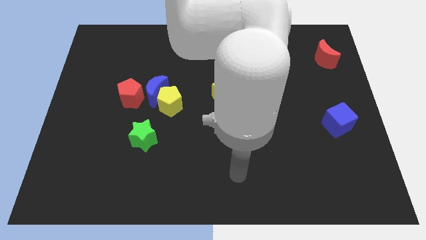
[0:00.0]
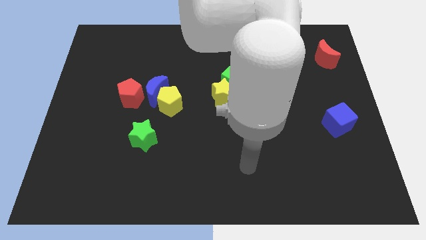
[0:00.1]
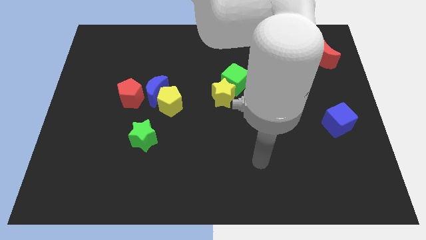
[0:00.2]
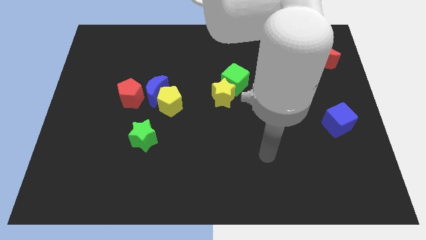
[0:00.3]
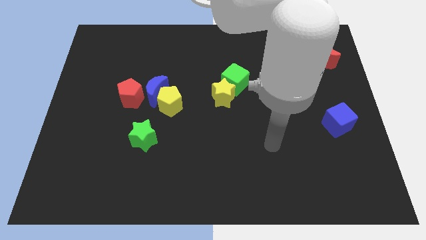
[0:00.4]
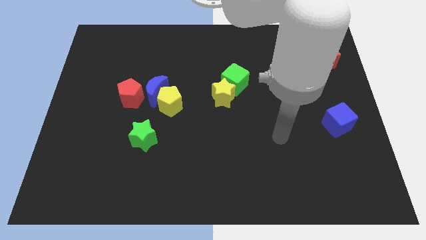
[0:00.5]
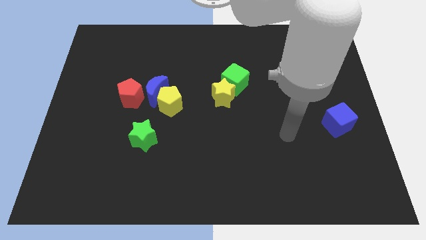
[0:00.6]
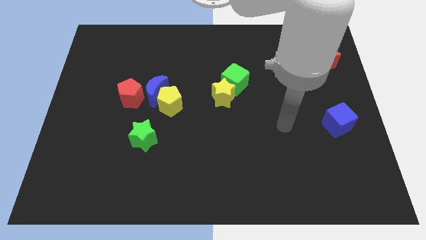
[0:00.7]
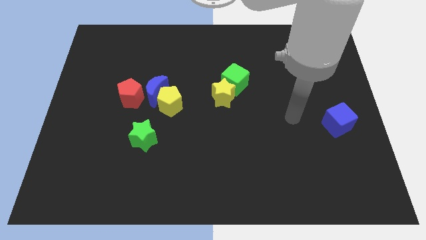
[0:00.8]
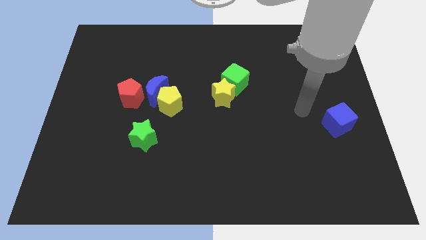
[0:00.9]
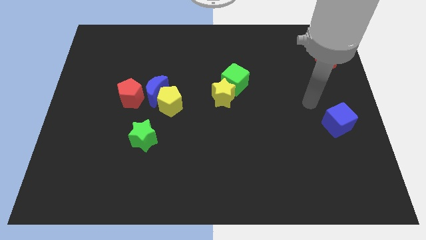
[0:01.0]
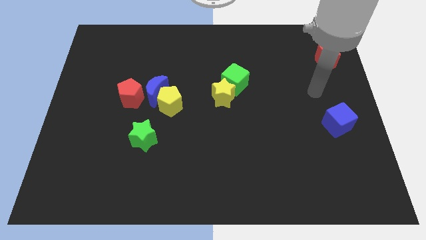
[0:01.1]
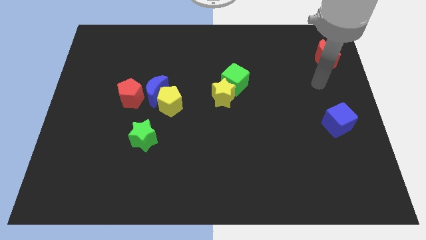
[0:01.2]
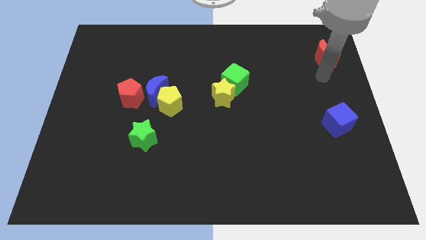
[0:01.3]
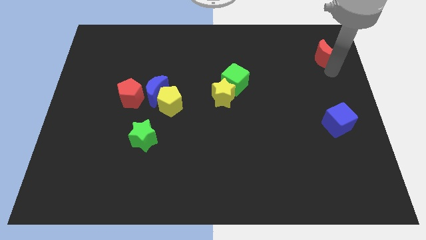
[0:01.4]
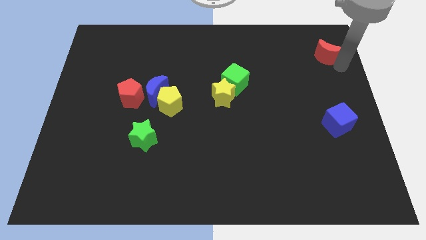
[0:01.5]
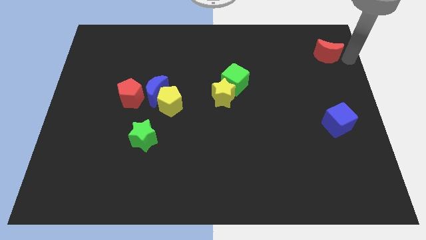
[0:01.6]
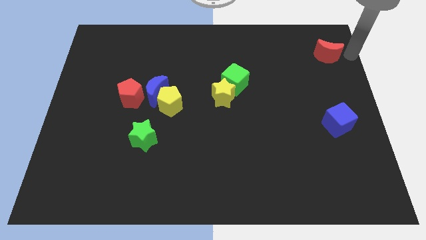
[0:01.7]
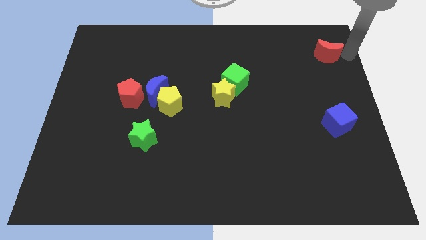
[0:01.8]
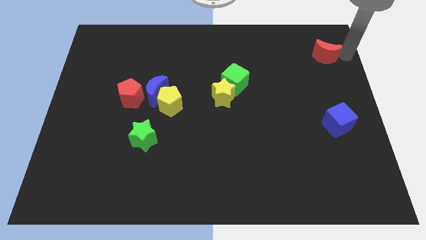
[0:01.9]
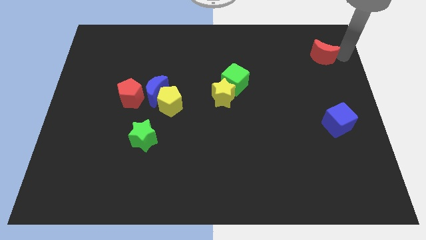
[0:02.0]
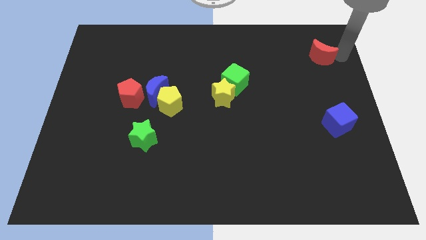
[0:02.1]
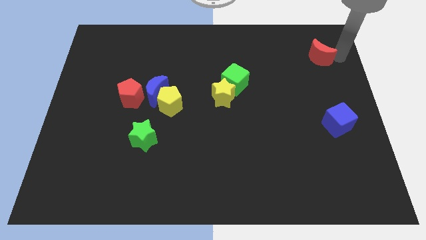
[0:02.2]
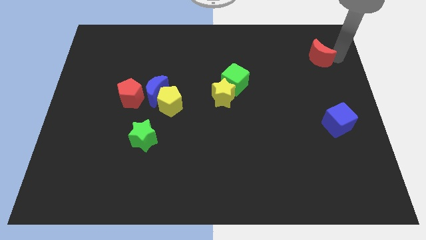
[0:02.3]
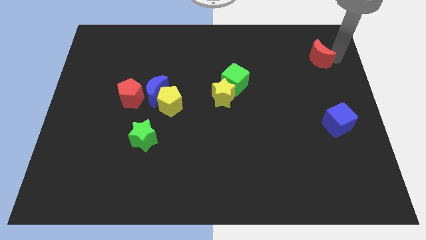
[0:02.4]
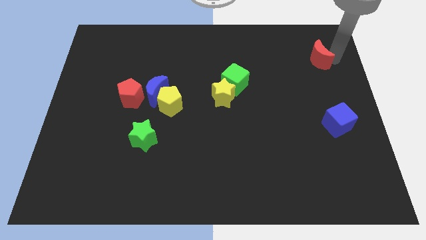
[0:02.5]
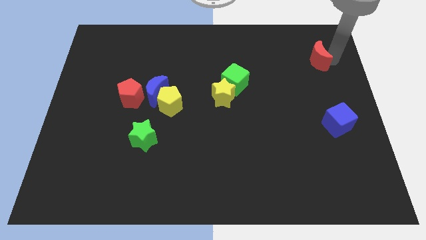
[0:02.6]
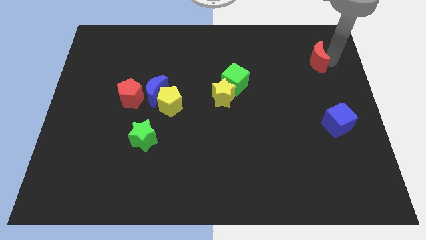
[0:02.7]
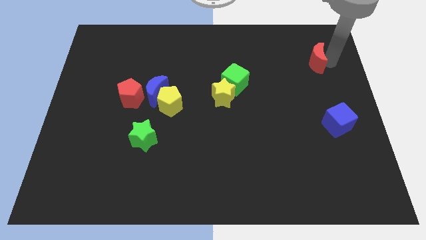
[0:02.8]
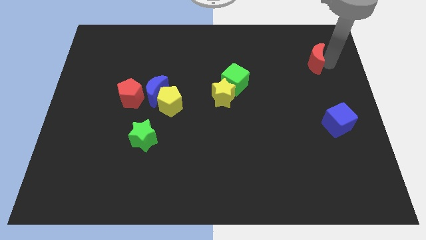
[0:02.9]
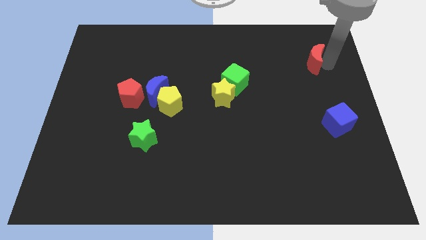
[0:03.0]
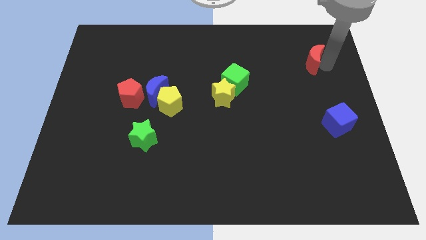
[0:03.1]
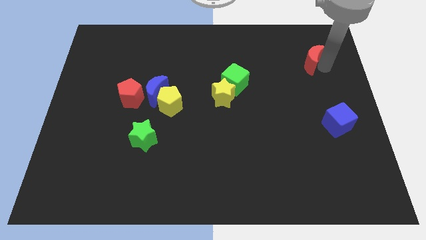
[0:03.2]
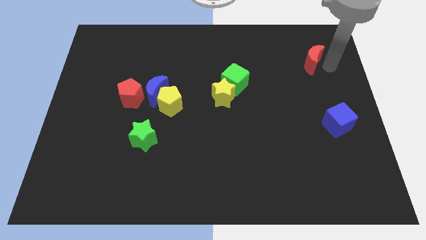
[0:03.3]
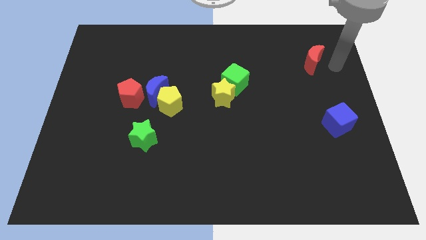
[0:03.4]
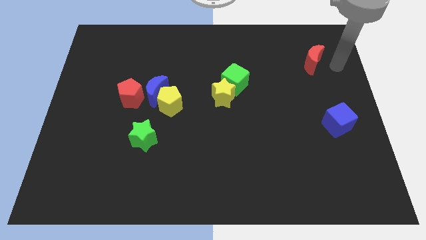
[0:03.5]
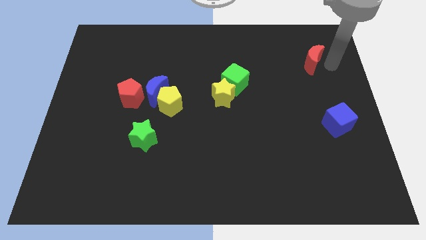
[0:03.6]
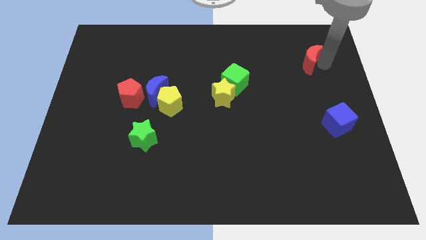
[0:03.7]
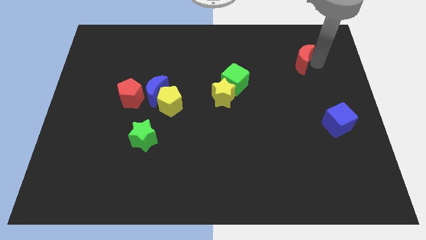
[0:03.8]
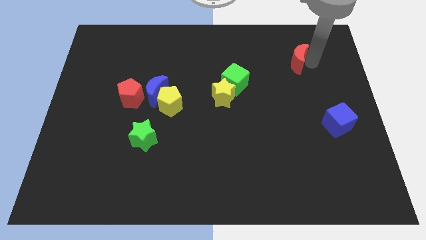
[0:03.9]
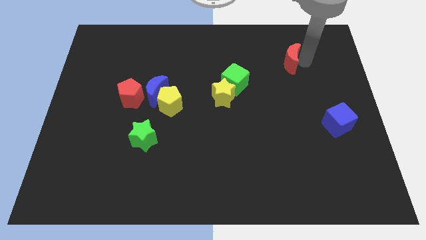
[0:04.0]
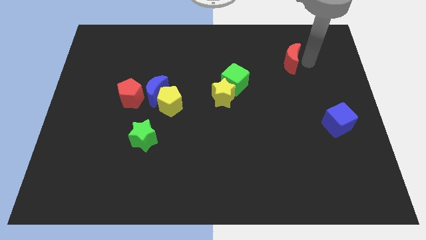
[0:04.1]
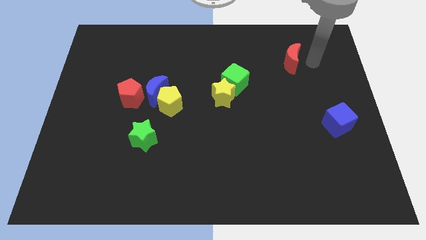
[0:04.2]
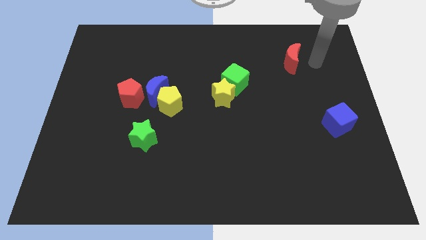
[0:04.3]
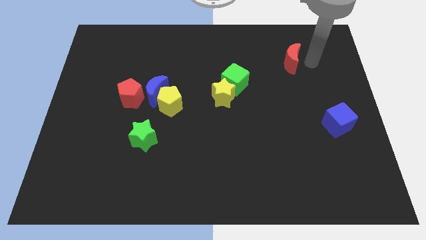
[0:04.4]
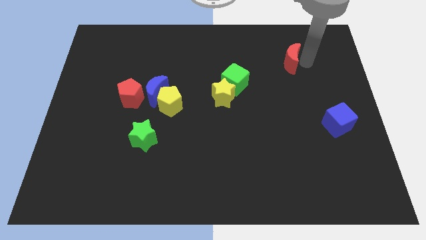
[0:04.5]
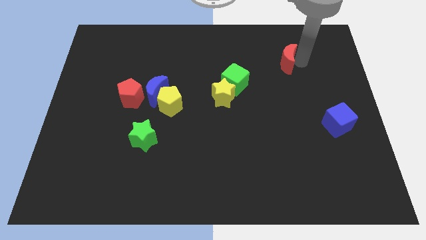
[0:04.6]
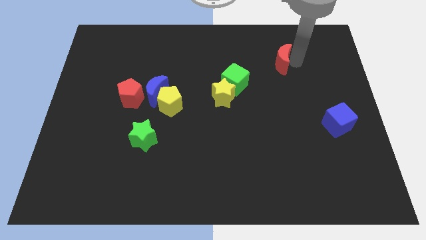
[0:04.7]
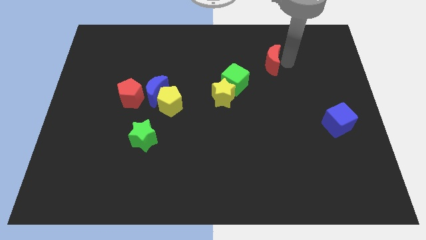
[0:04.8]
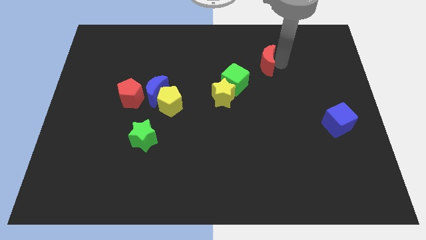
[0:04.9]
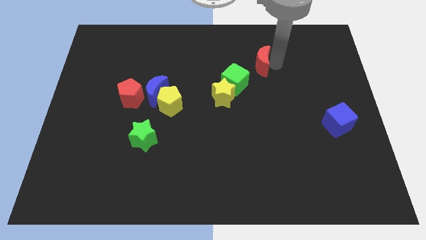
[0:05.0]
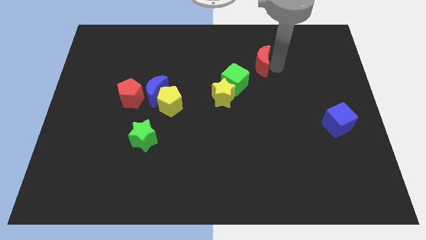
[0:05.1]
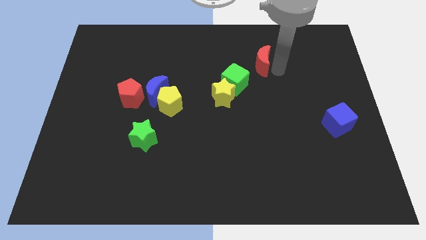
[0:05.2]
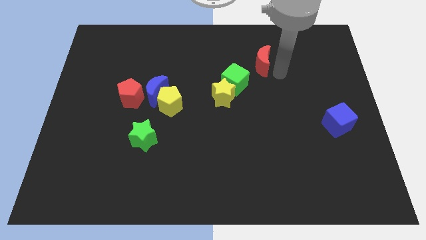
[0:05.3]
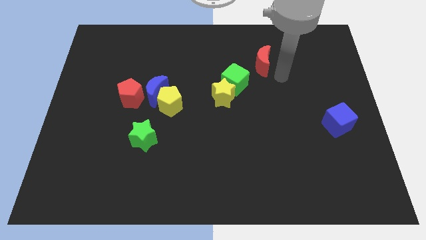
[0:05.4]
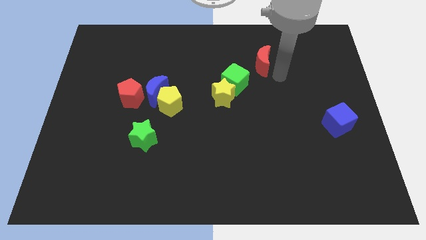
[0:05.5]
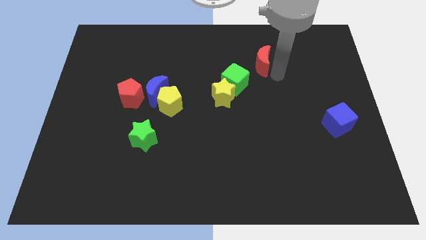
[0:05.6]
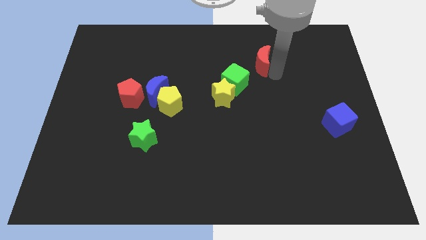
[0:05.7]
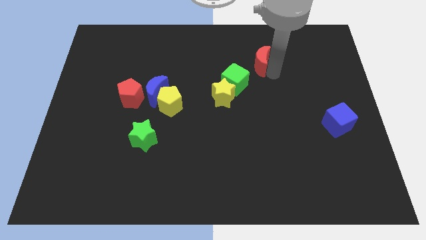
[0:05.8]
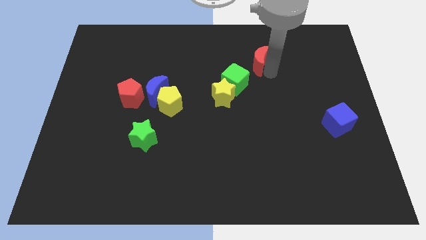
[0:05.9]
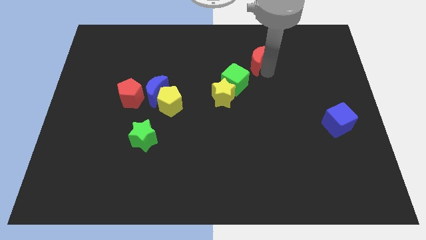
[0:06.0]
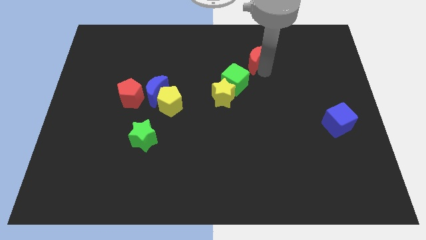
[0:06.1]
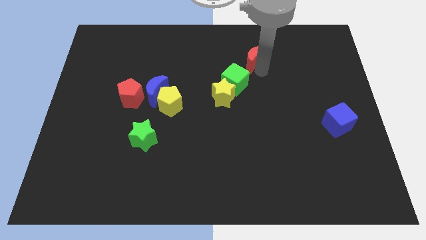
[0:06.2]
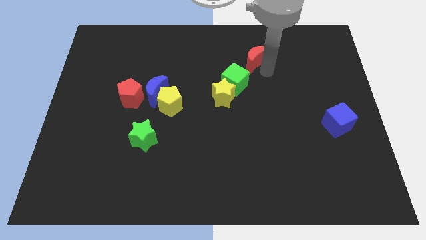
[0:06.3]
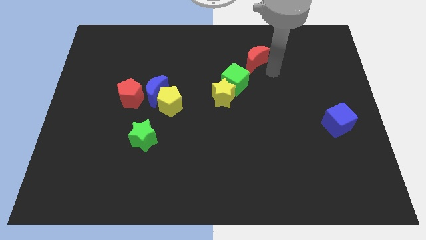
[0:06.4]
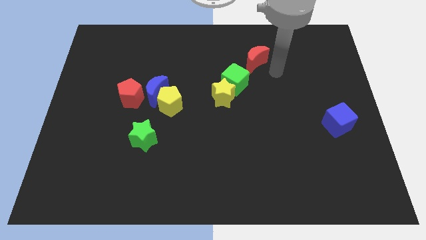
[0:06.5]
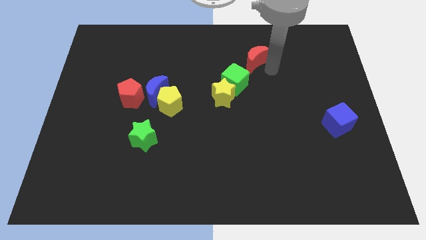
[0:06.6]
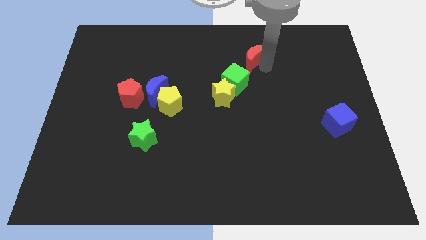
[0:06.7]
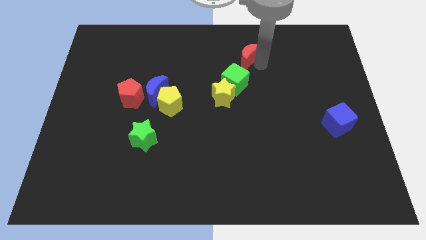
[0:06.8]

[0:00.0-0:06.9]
slide the red moon to the left

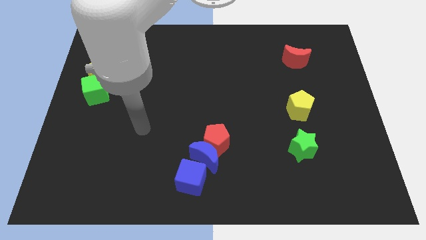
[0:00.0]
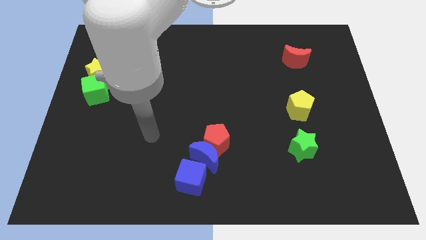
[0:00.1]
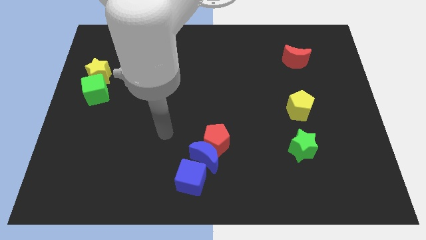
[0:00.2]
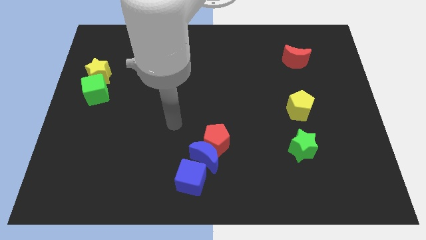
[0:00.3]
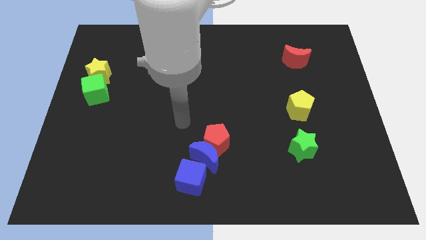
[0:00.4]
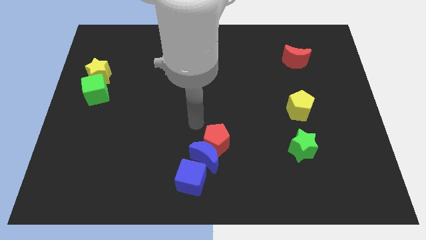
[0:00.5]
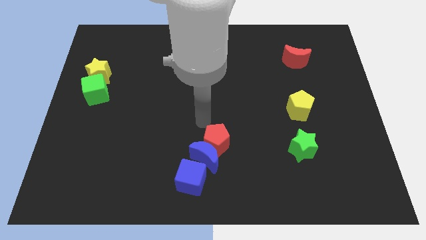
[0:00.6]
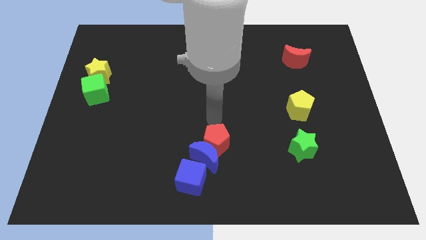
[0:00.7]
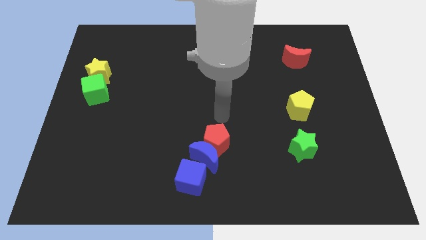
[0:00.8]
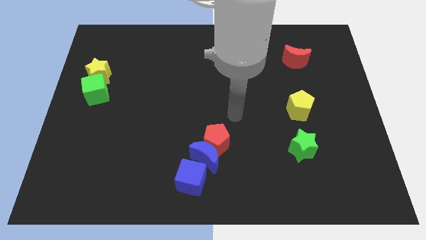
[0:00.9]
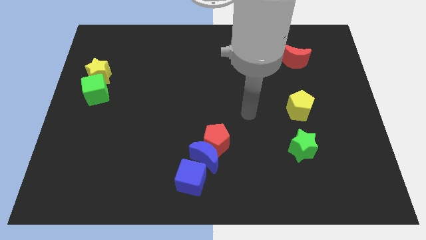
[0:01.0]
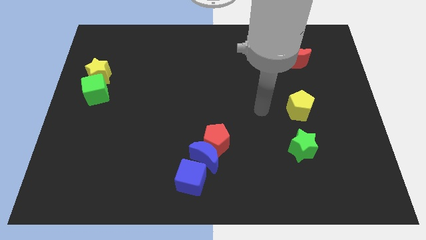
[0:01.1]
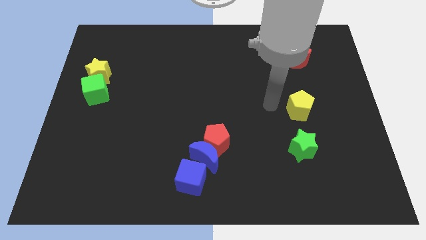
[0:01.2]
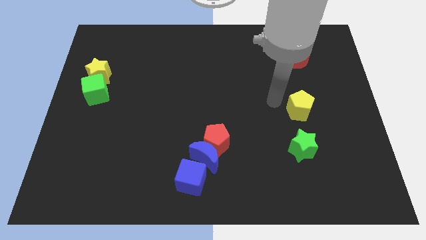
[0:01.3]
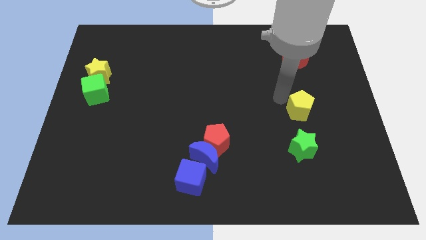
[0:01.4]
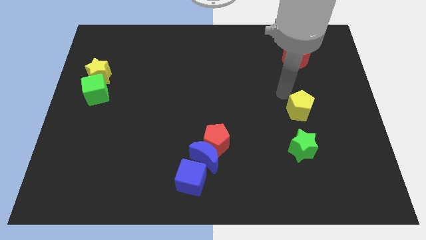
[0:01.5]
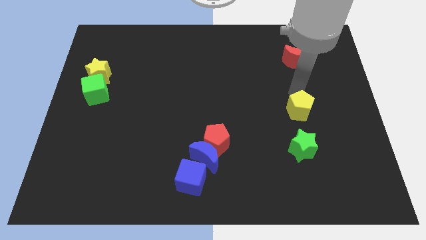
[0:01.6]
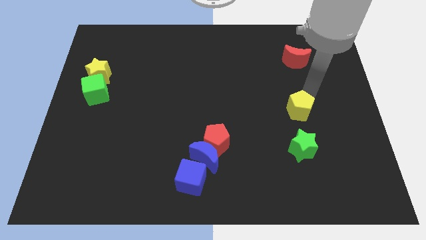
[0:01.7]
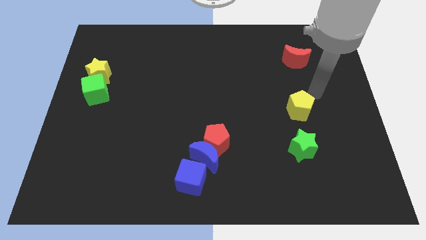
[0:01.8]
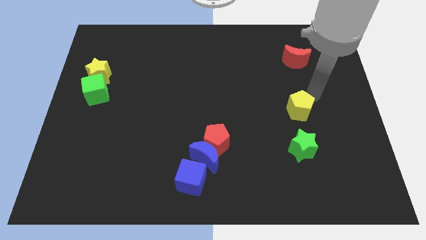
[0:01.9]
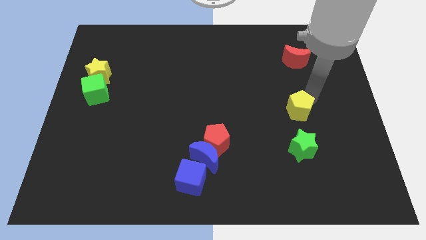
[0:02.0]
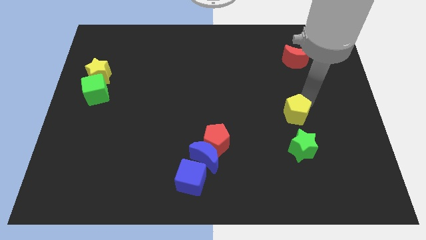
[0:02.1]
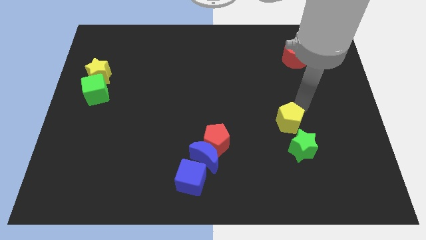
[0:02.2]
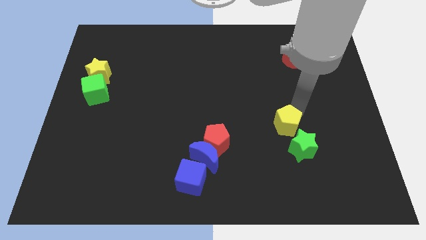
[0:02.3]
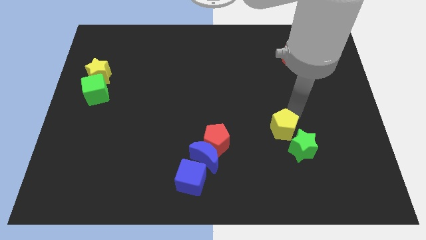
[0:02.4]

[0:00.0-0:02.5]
push the yellow pentagon slightly diagonally downwards and left
